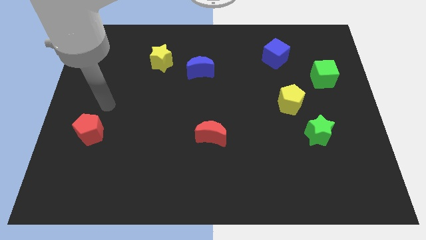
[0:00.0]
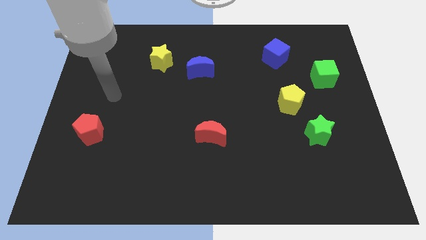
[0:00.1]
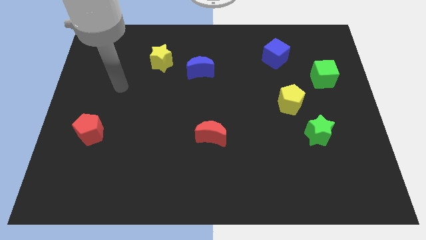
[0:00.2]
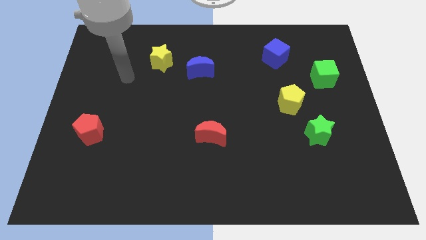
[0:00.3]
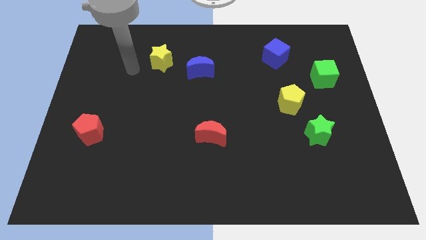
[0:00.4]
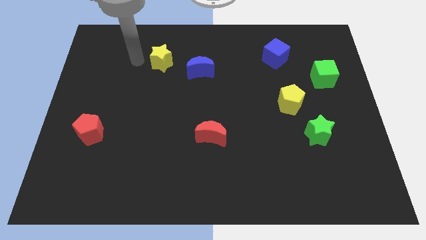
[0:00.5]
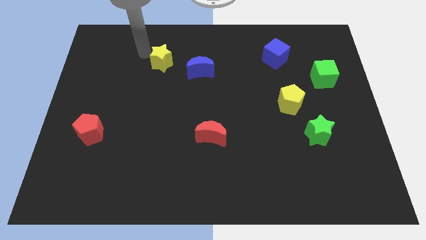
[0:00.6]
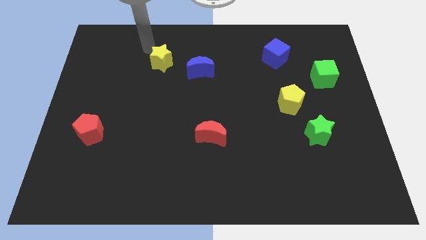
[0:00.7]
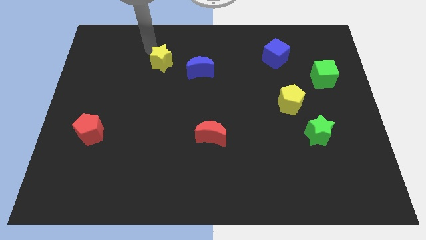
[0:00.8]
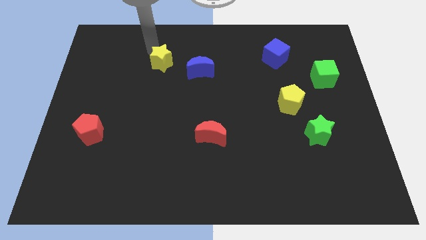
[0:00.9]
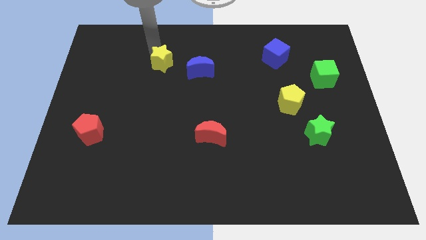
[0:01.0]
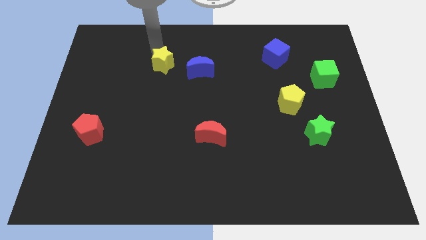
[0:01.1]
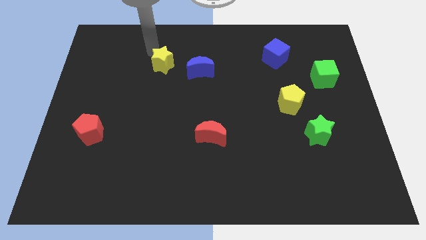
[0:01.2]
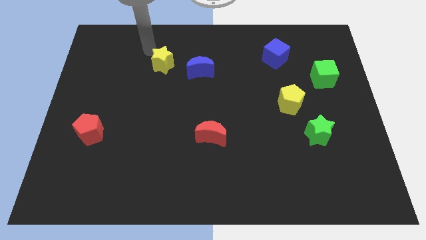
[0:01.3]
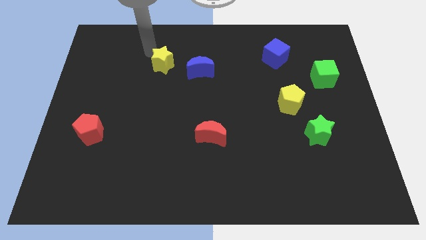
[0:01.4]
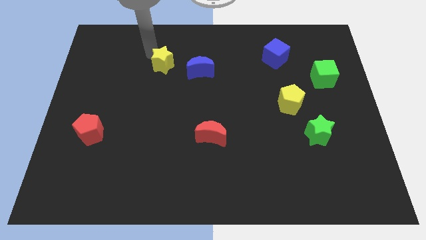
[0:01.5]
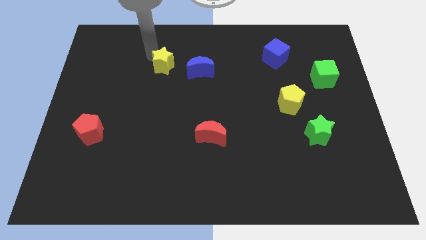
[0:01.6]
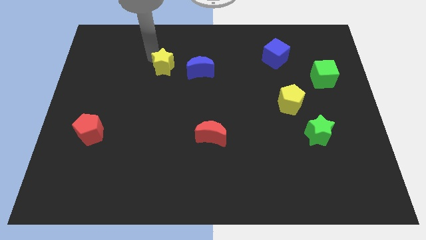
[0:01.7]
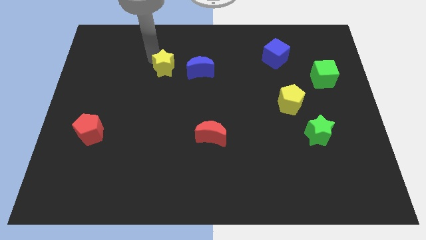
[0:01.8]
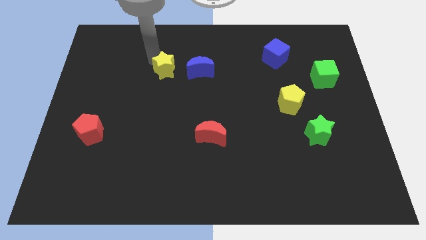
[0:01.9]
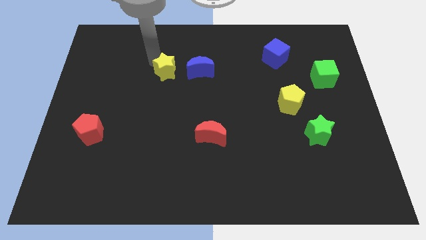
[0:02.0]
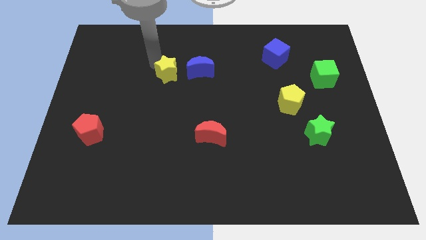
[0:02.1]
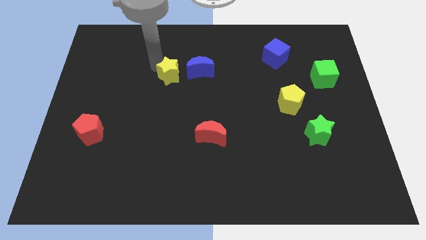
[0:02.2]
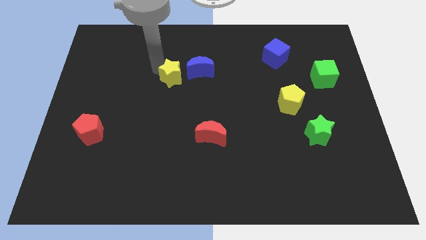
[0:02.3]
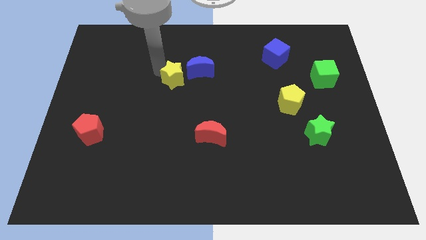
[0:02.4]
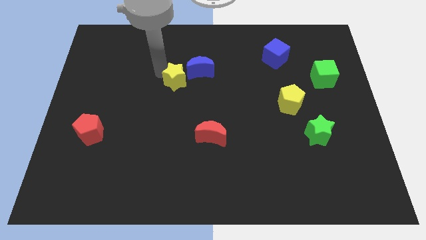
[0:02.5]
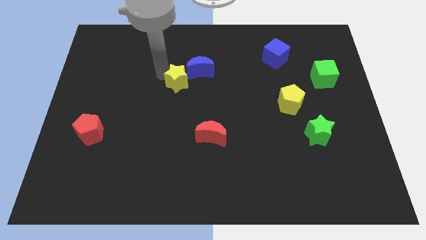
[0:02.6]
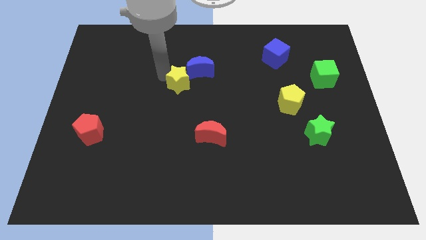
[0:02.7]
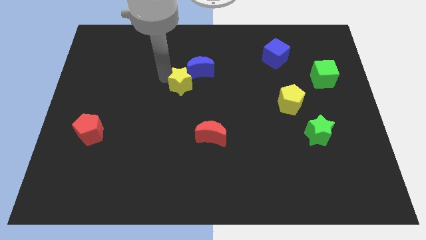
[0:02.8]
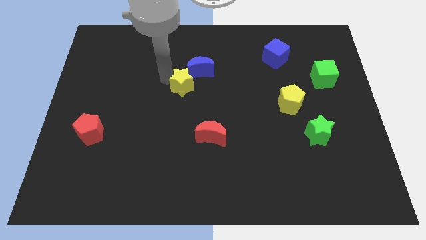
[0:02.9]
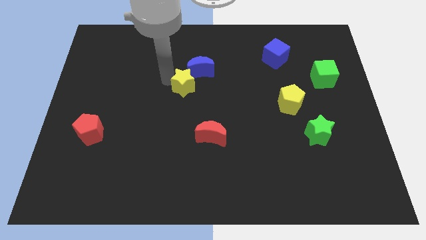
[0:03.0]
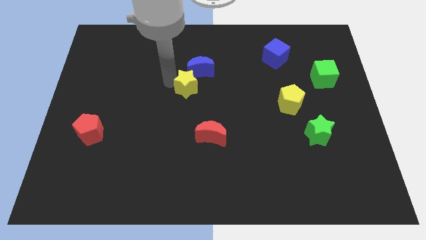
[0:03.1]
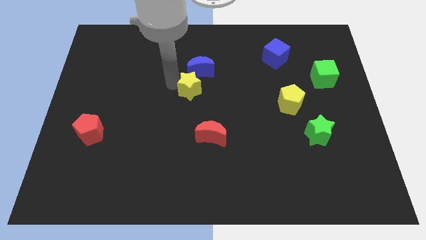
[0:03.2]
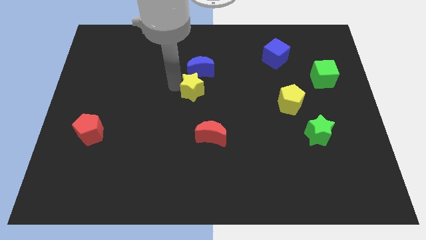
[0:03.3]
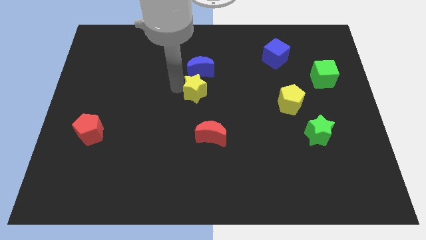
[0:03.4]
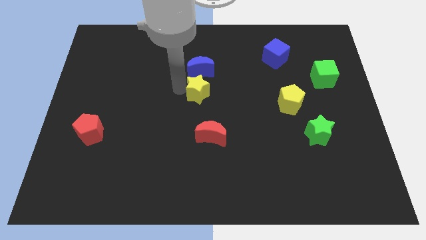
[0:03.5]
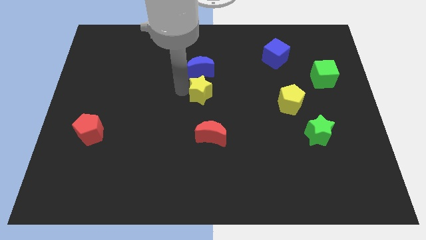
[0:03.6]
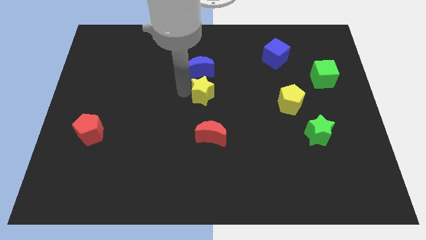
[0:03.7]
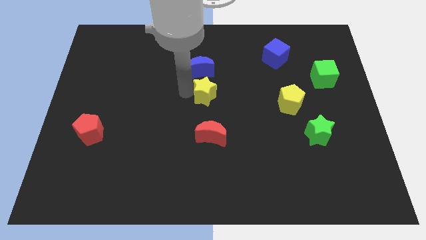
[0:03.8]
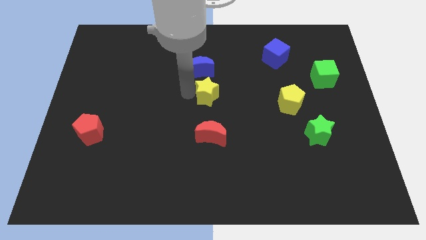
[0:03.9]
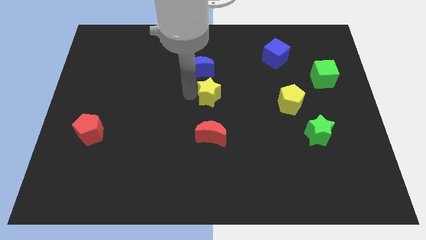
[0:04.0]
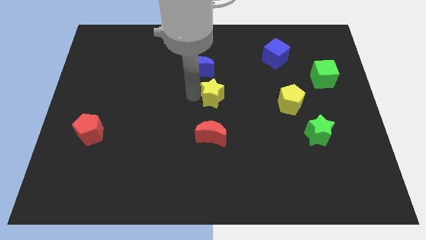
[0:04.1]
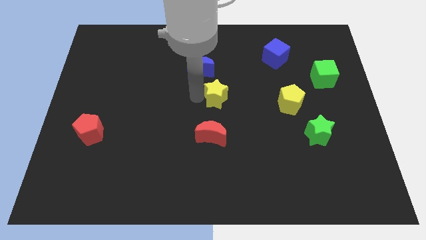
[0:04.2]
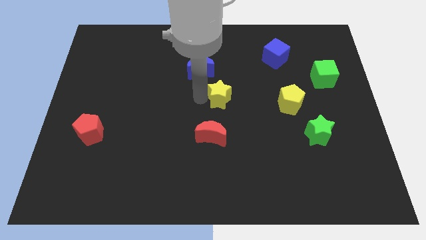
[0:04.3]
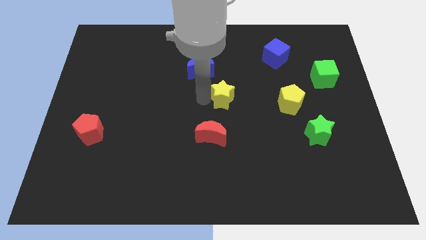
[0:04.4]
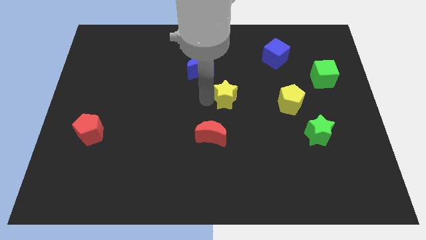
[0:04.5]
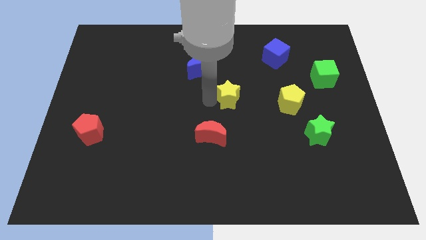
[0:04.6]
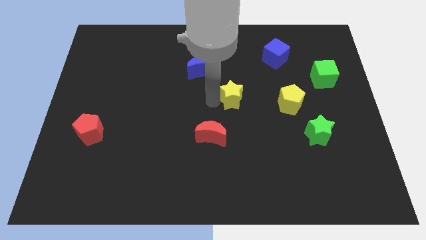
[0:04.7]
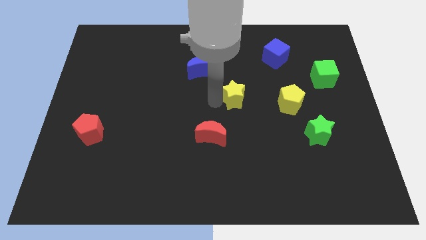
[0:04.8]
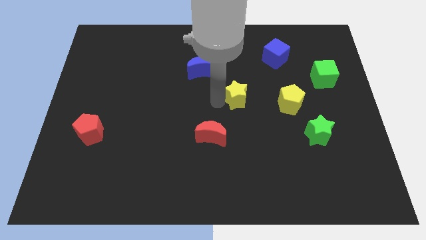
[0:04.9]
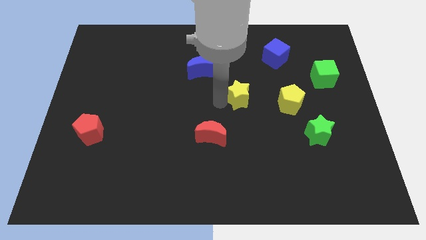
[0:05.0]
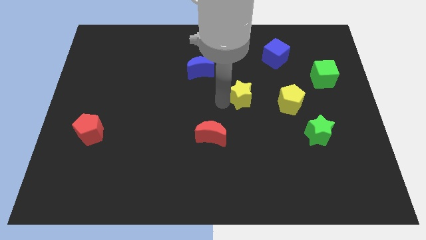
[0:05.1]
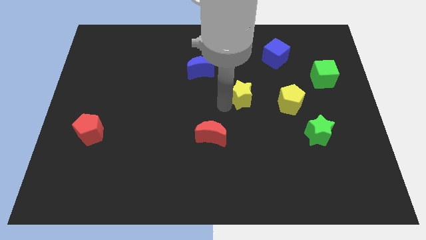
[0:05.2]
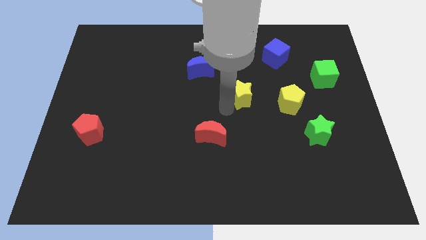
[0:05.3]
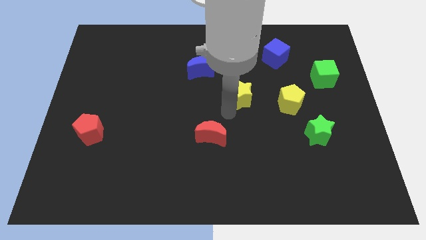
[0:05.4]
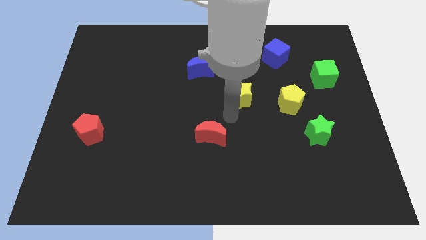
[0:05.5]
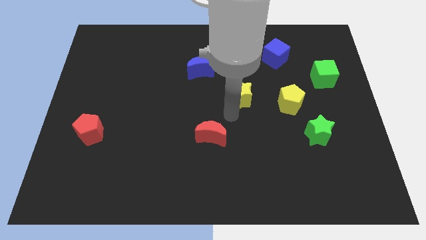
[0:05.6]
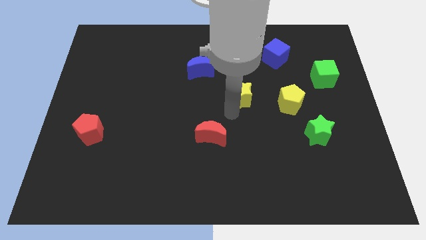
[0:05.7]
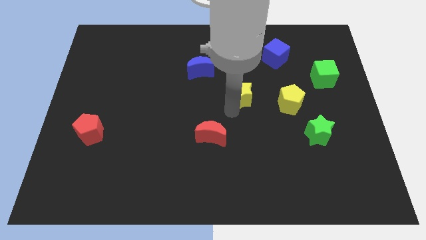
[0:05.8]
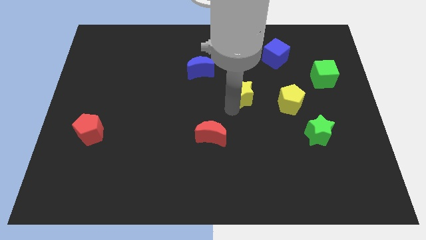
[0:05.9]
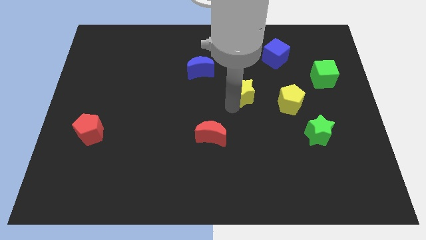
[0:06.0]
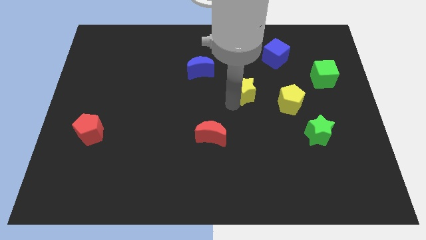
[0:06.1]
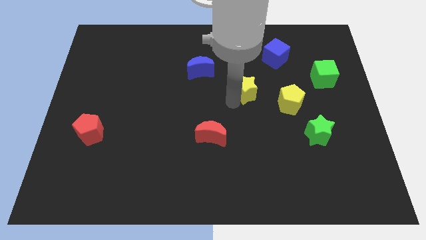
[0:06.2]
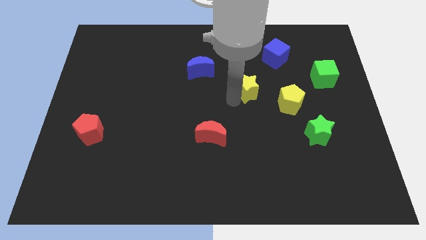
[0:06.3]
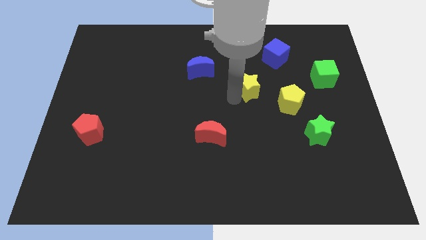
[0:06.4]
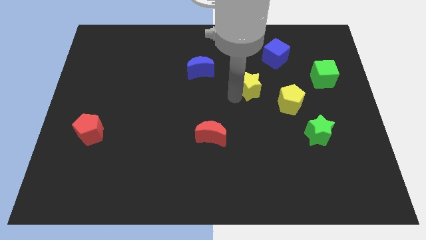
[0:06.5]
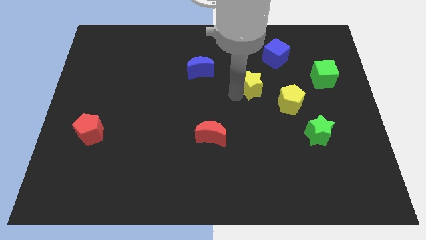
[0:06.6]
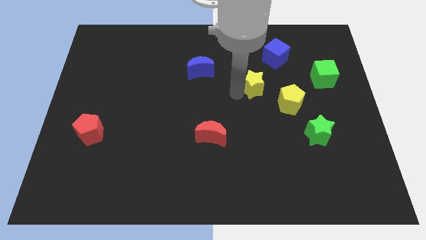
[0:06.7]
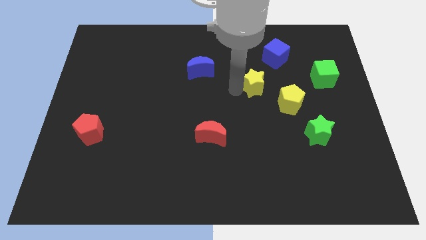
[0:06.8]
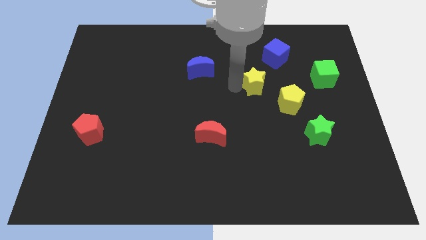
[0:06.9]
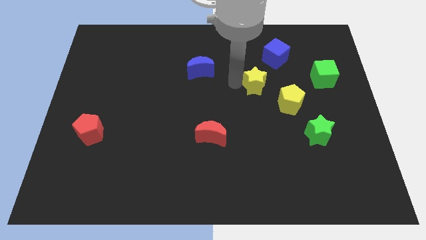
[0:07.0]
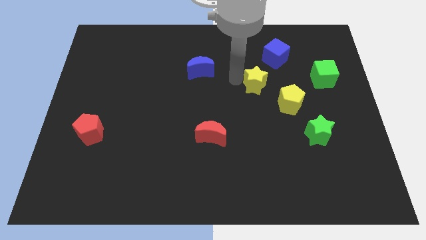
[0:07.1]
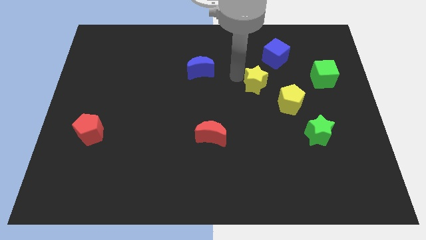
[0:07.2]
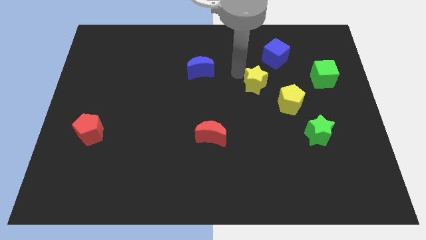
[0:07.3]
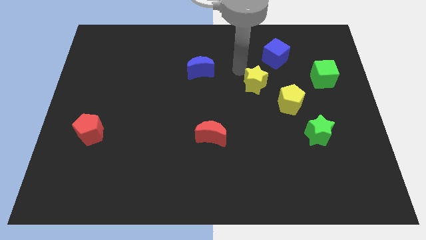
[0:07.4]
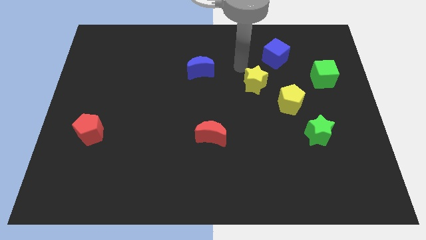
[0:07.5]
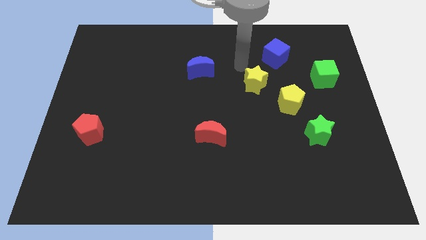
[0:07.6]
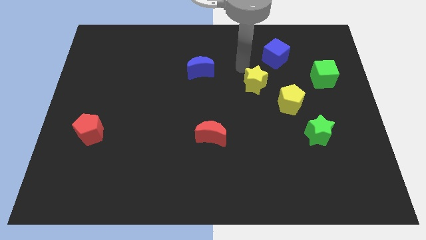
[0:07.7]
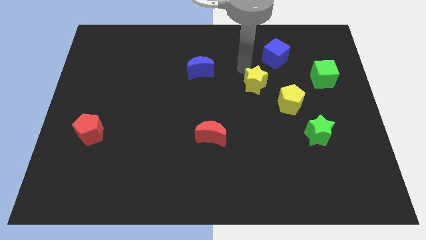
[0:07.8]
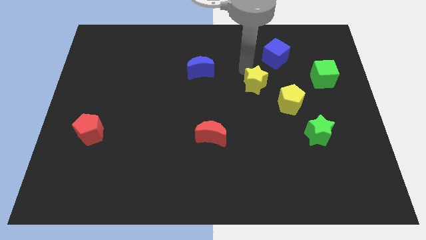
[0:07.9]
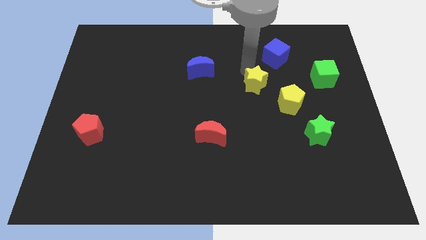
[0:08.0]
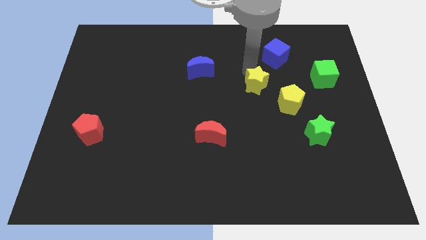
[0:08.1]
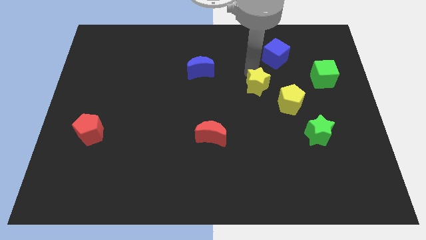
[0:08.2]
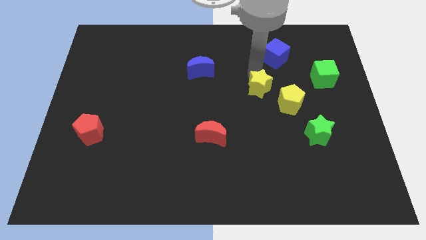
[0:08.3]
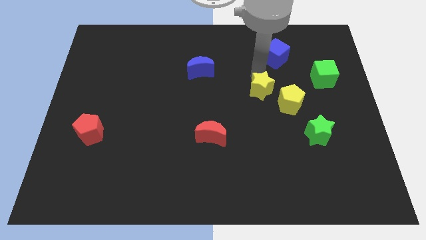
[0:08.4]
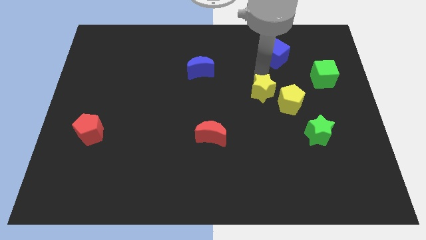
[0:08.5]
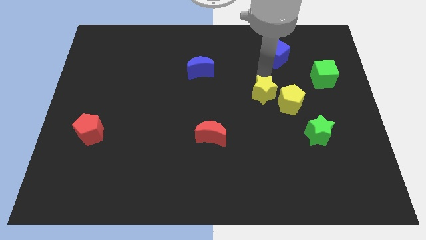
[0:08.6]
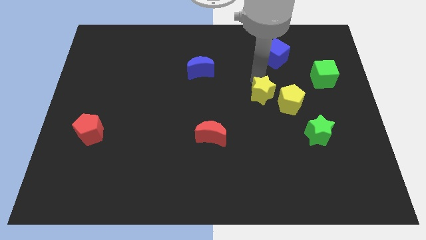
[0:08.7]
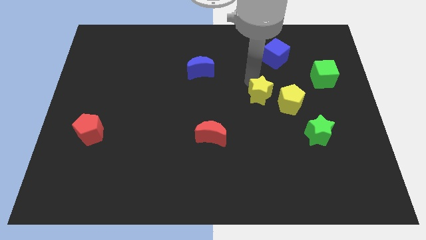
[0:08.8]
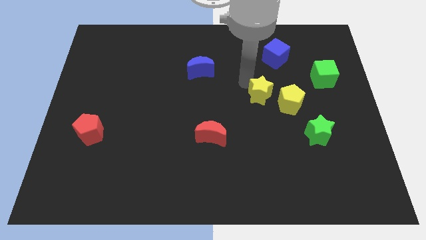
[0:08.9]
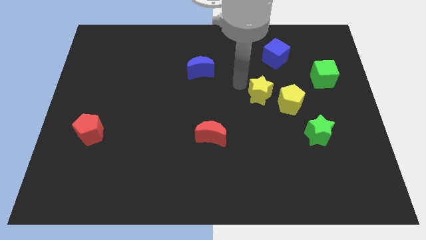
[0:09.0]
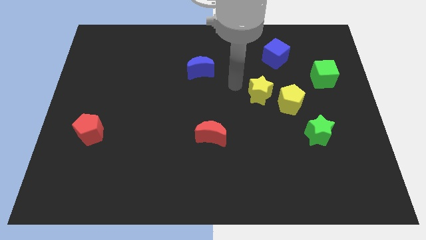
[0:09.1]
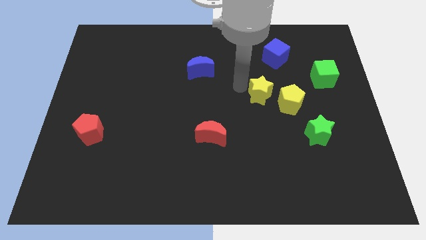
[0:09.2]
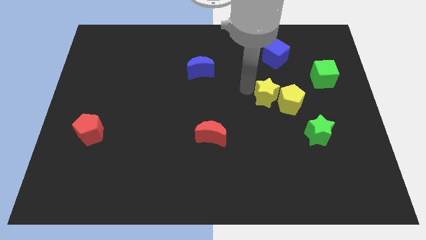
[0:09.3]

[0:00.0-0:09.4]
move the yellow star to the yellow pentagon
